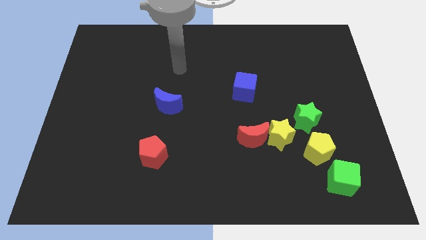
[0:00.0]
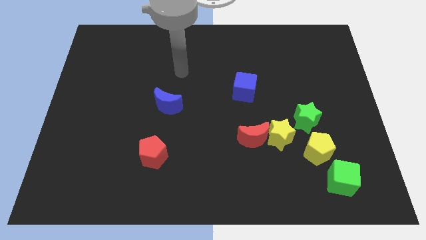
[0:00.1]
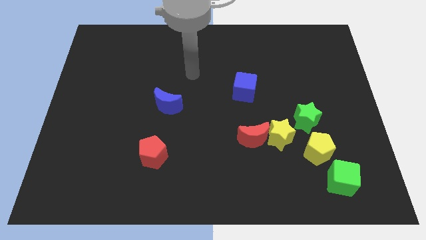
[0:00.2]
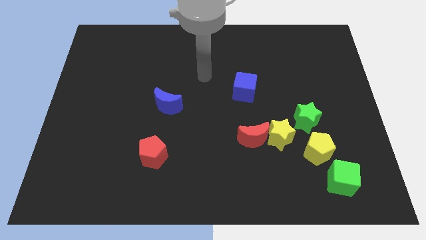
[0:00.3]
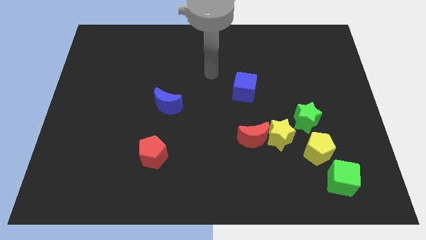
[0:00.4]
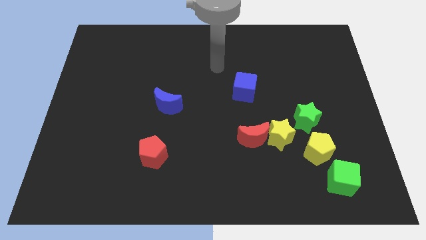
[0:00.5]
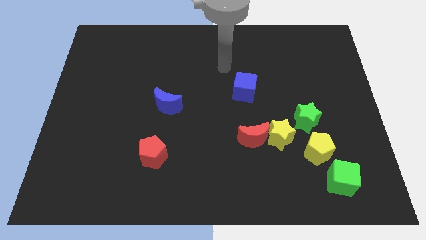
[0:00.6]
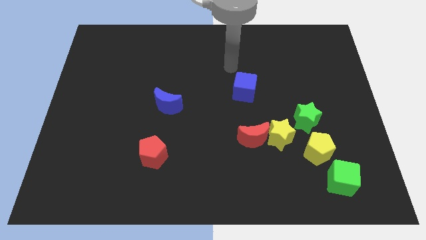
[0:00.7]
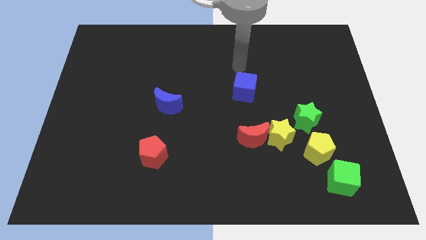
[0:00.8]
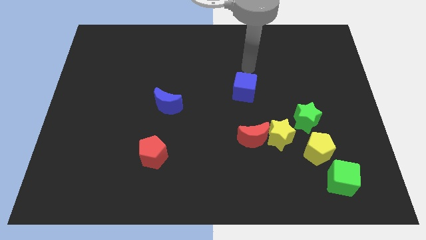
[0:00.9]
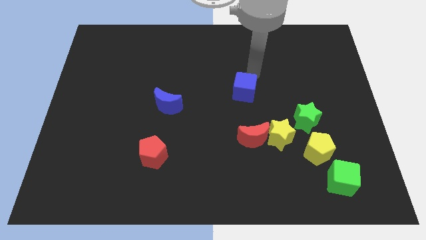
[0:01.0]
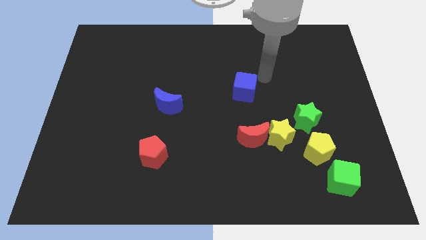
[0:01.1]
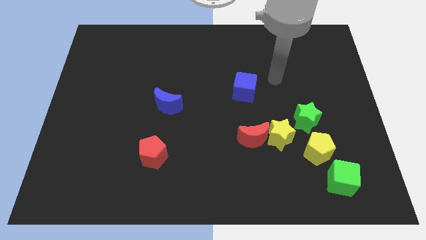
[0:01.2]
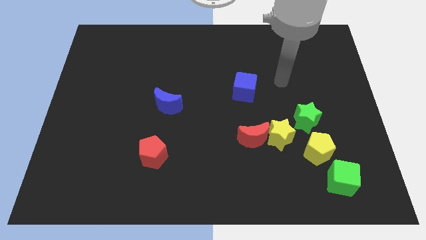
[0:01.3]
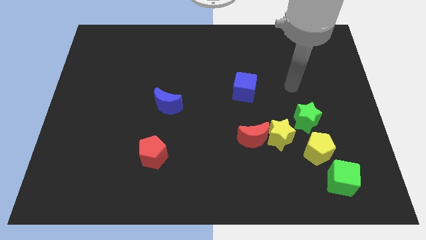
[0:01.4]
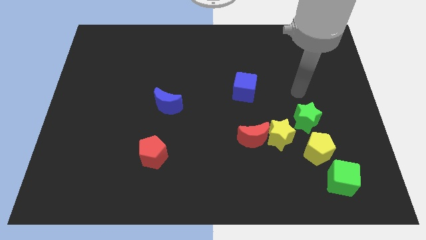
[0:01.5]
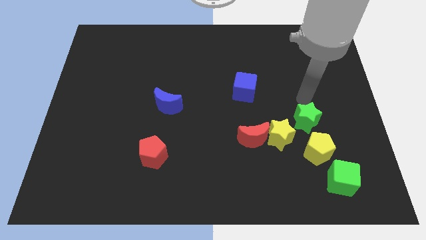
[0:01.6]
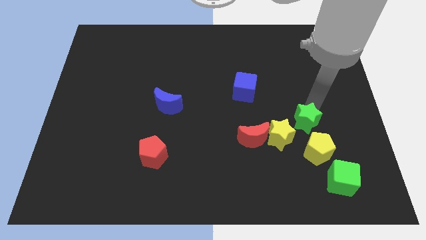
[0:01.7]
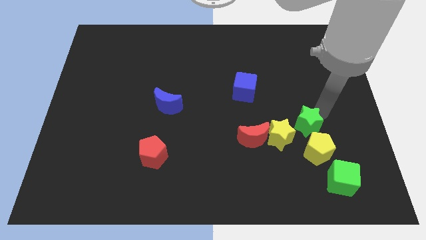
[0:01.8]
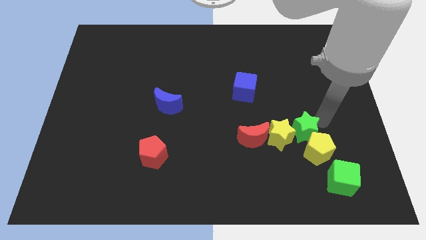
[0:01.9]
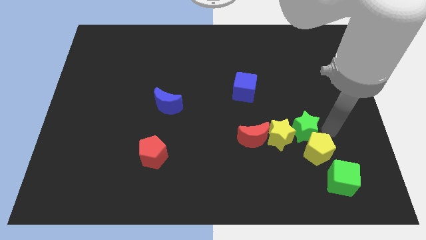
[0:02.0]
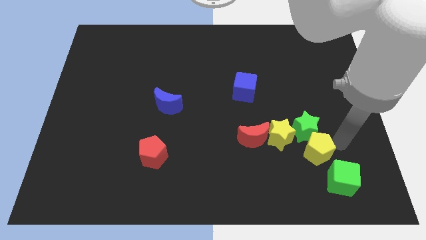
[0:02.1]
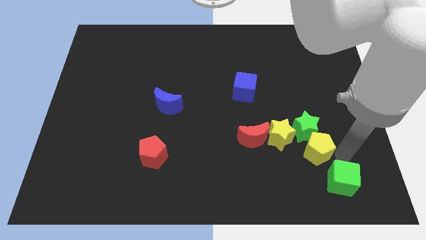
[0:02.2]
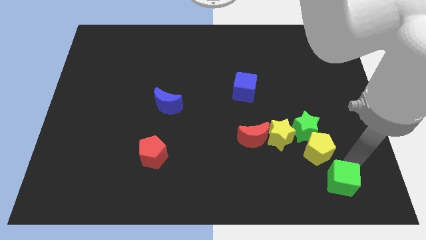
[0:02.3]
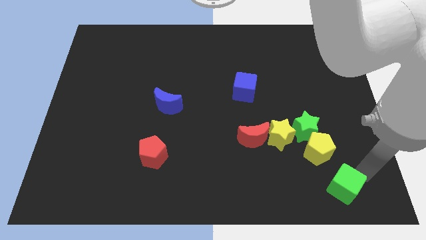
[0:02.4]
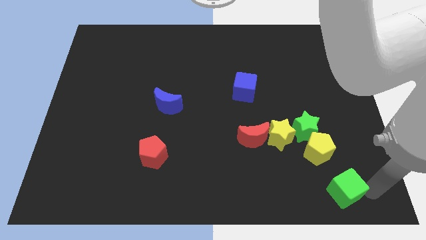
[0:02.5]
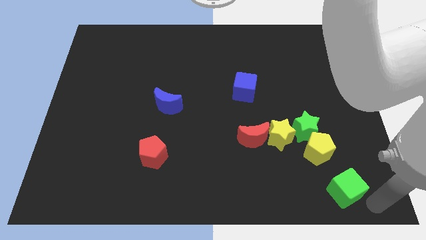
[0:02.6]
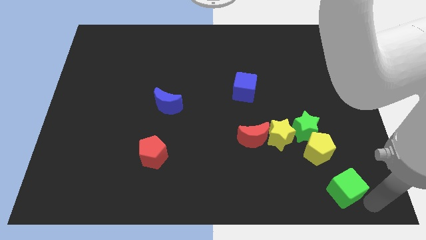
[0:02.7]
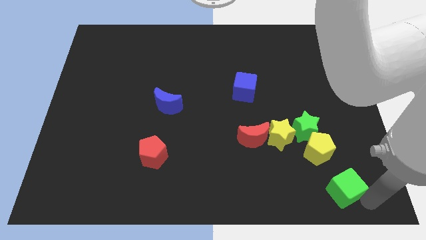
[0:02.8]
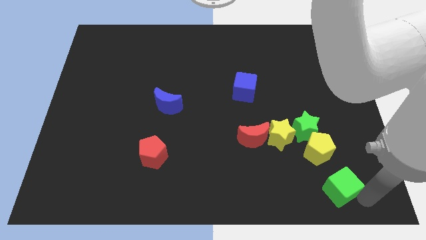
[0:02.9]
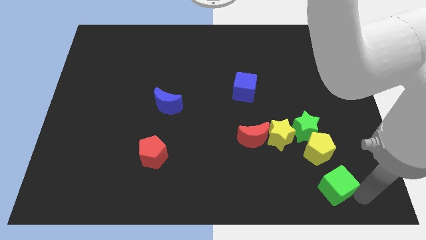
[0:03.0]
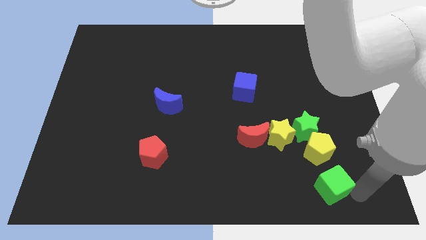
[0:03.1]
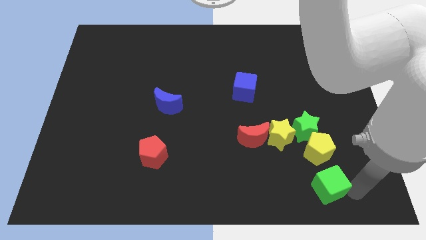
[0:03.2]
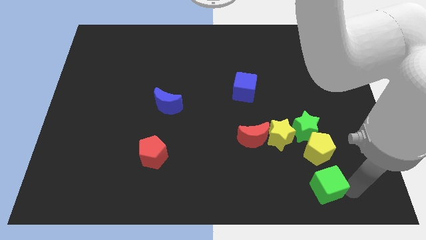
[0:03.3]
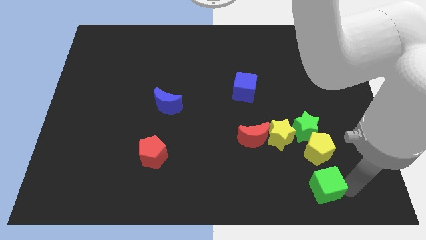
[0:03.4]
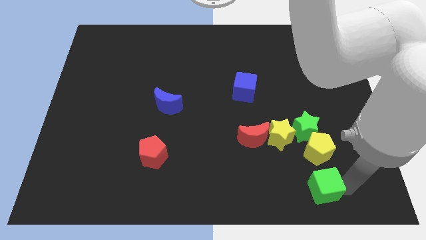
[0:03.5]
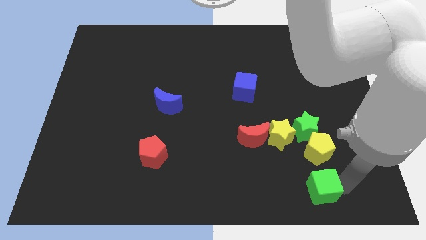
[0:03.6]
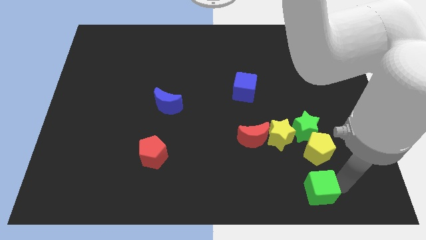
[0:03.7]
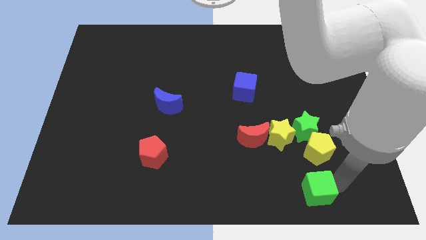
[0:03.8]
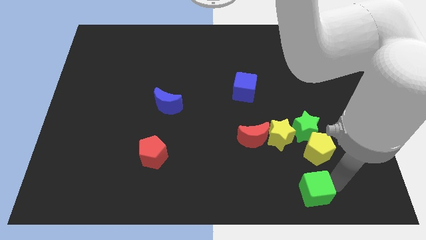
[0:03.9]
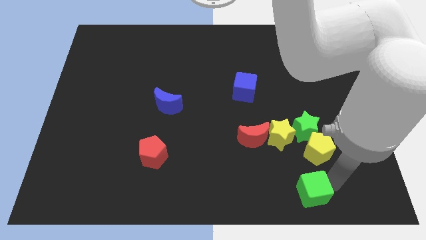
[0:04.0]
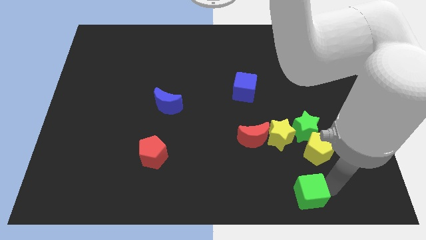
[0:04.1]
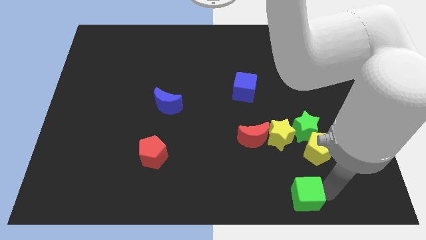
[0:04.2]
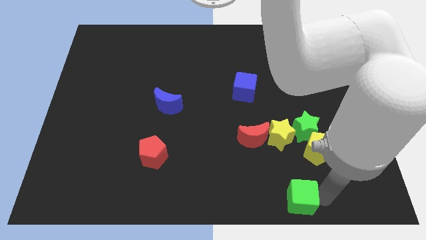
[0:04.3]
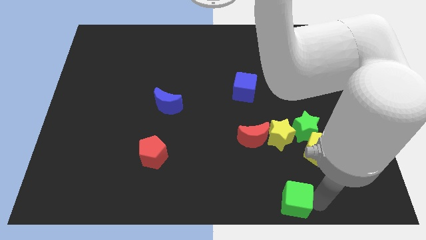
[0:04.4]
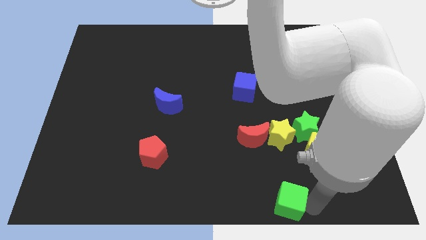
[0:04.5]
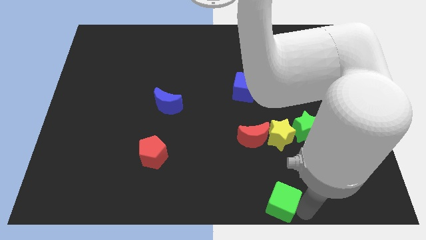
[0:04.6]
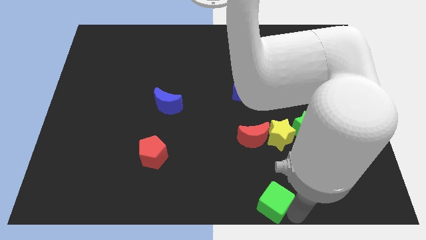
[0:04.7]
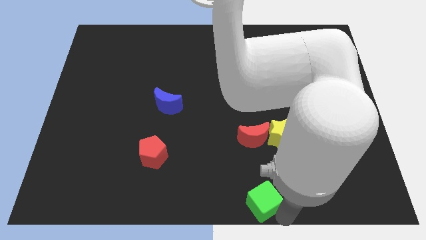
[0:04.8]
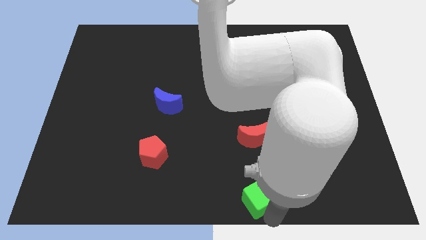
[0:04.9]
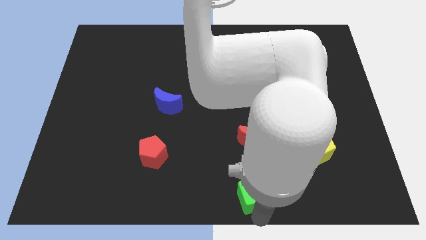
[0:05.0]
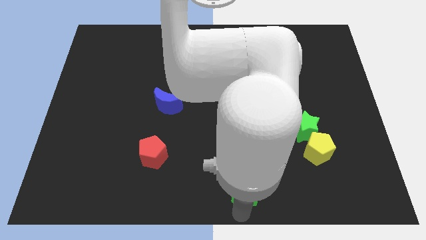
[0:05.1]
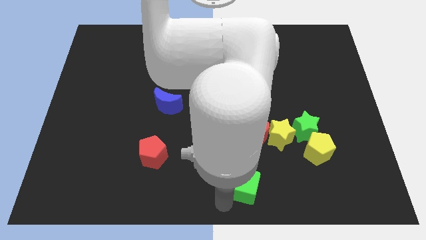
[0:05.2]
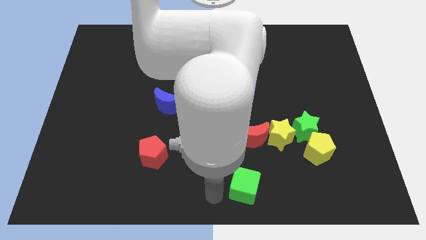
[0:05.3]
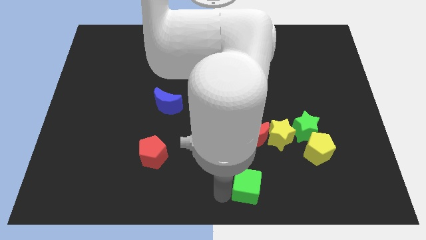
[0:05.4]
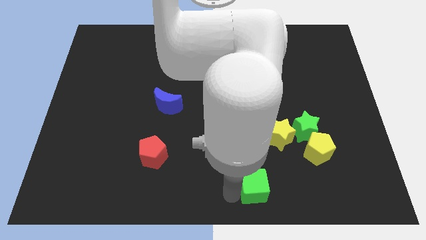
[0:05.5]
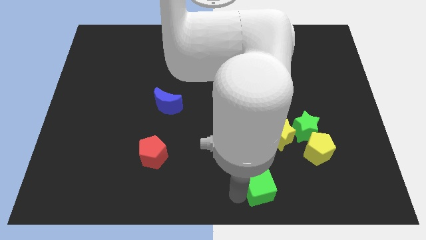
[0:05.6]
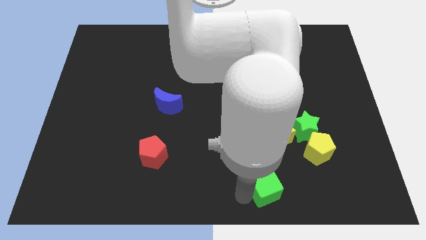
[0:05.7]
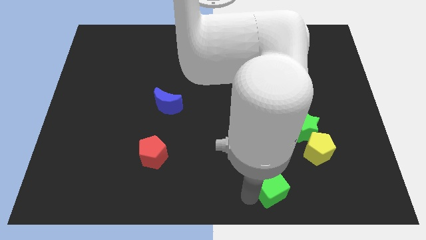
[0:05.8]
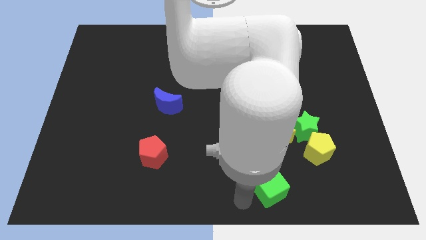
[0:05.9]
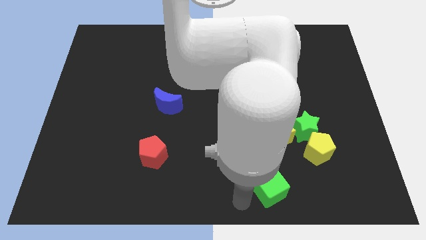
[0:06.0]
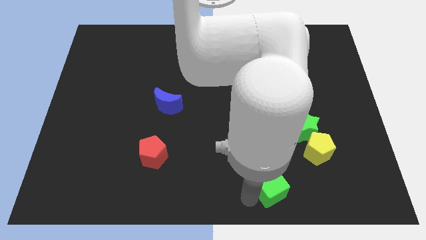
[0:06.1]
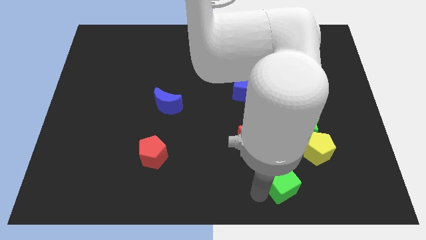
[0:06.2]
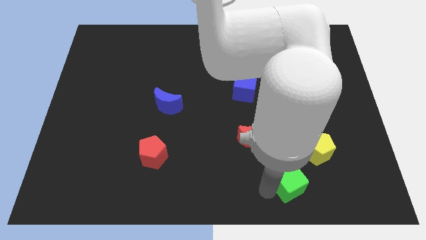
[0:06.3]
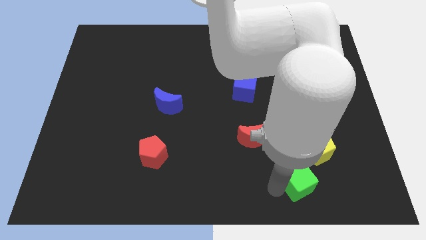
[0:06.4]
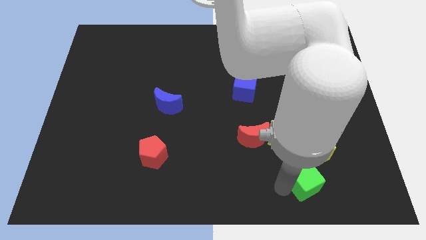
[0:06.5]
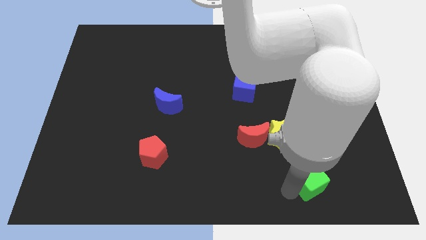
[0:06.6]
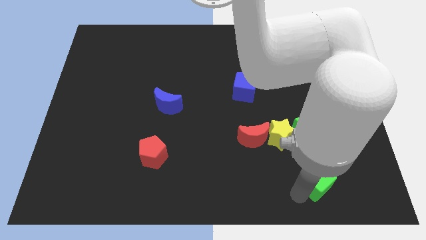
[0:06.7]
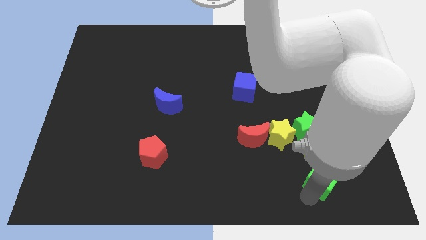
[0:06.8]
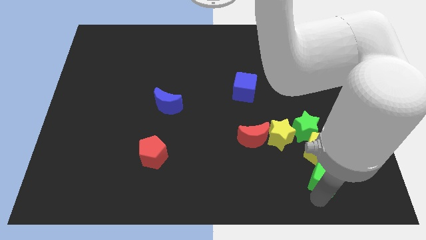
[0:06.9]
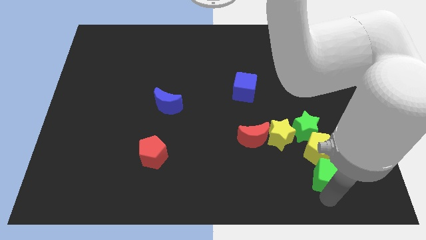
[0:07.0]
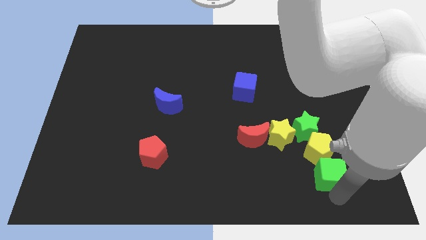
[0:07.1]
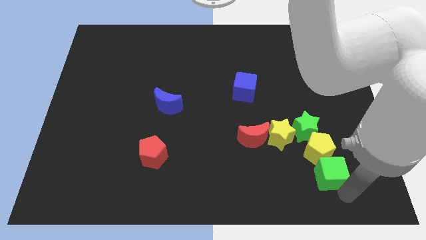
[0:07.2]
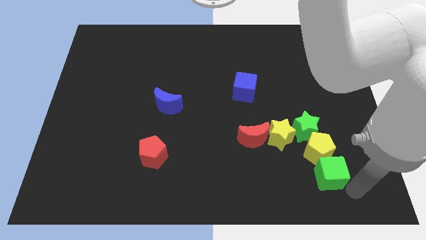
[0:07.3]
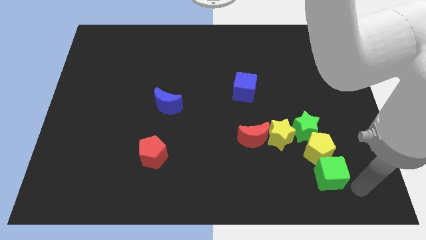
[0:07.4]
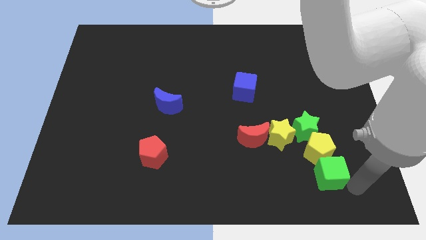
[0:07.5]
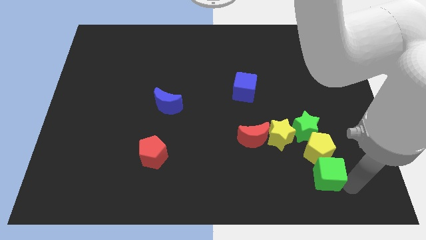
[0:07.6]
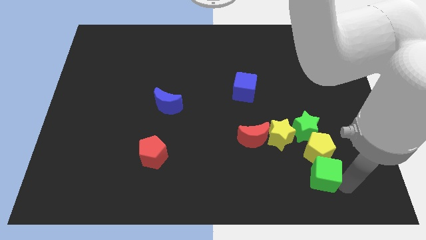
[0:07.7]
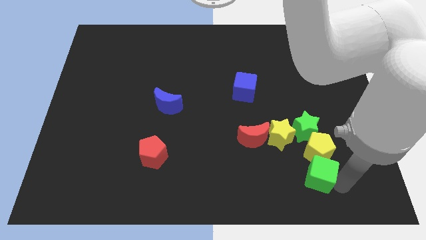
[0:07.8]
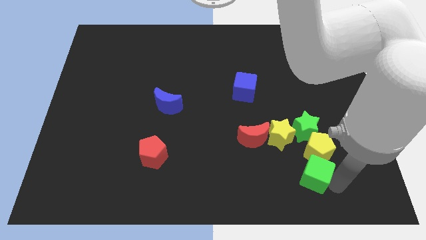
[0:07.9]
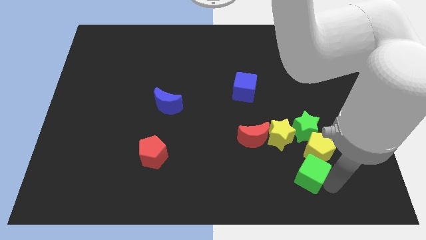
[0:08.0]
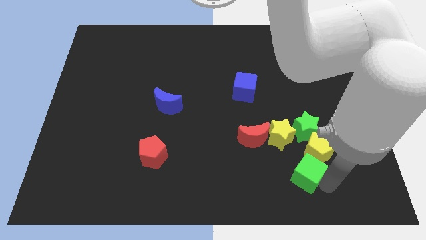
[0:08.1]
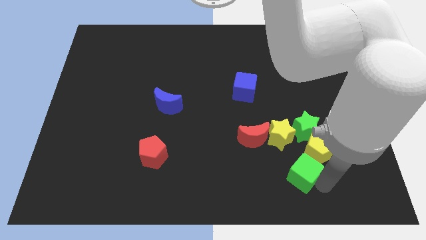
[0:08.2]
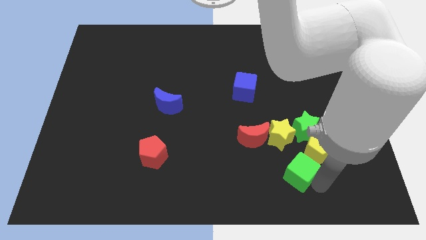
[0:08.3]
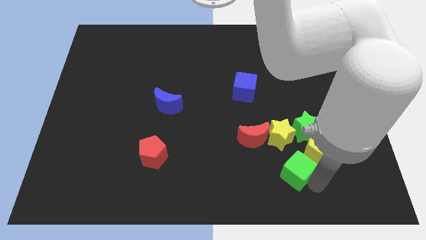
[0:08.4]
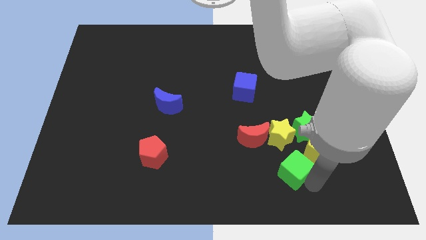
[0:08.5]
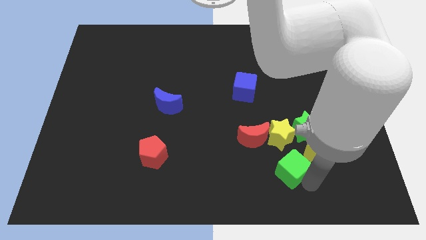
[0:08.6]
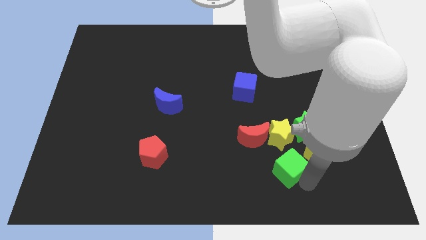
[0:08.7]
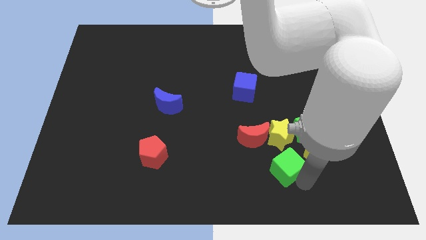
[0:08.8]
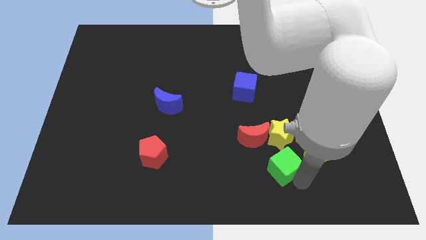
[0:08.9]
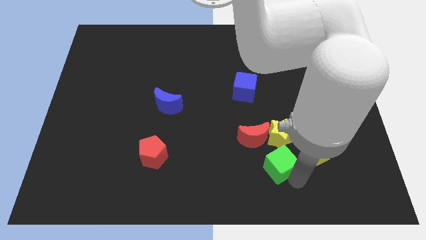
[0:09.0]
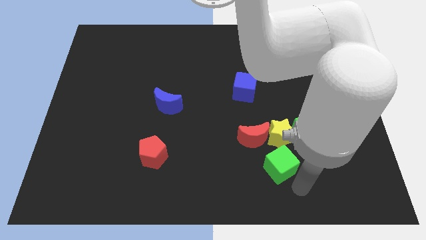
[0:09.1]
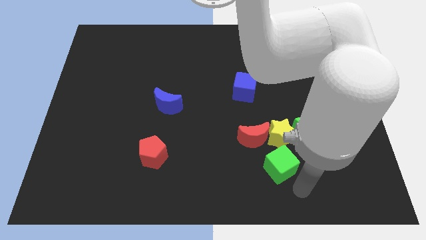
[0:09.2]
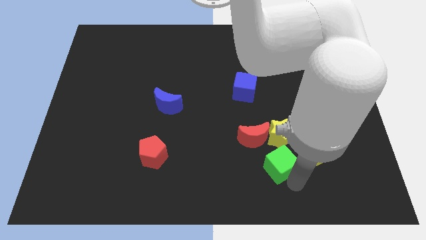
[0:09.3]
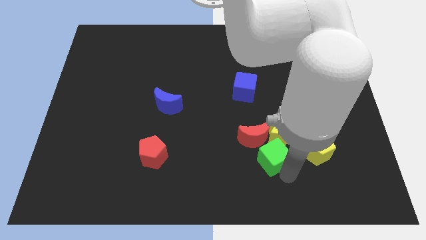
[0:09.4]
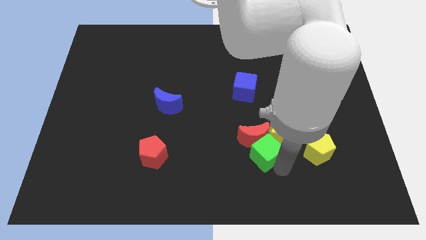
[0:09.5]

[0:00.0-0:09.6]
push the green cube to the red moon
